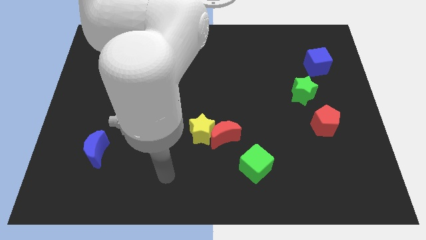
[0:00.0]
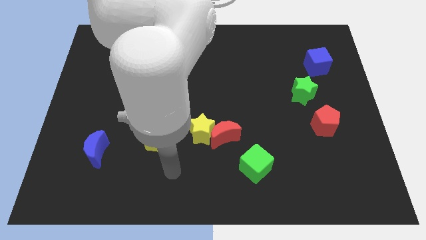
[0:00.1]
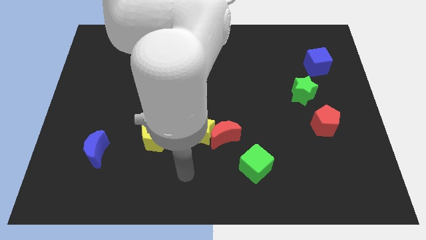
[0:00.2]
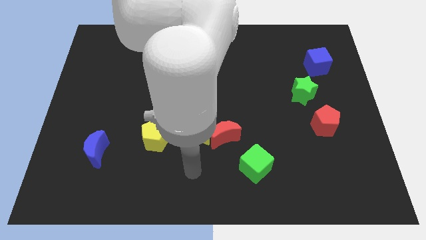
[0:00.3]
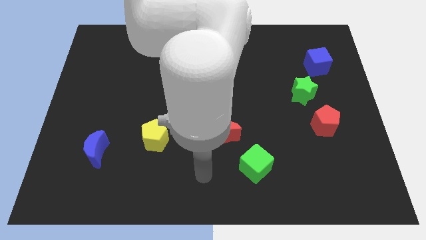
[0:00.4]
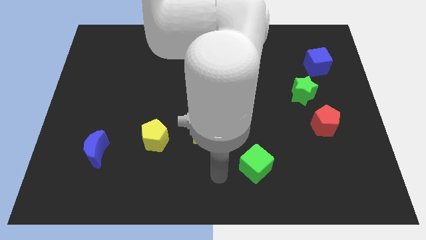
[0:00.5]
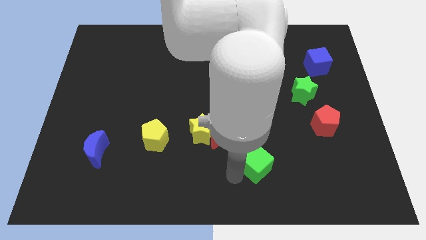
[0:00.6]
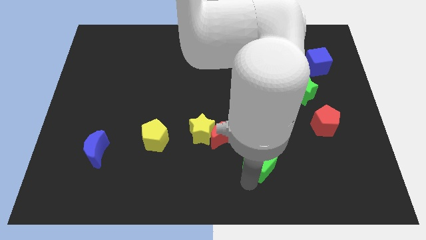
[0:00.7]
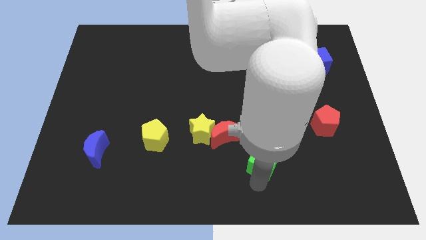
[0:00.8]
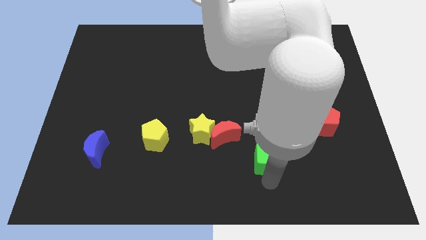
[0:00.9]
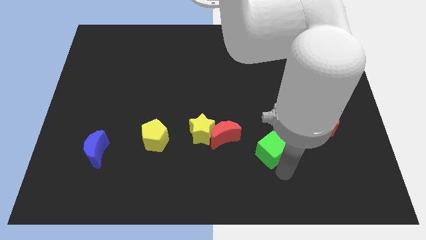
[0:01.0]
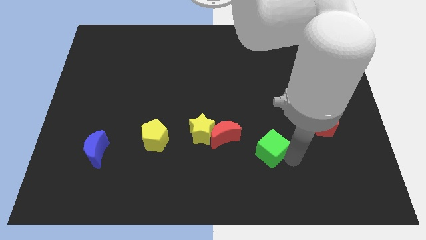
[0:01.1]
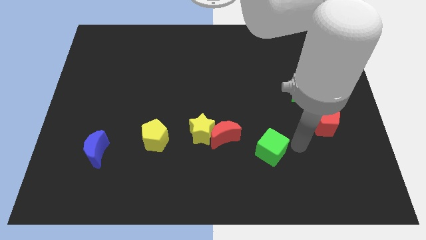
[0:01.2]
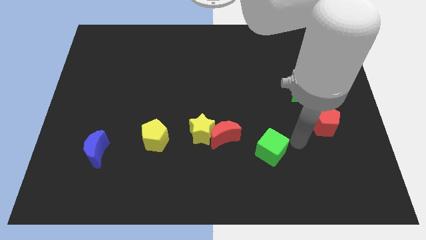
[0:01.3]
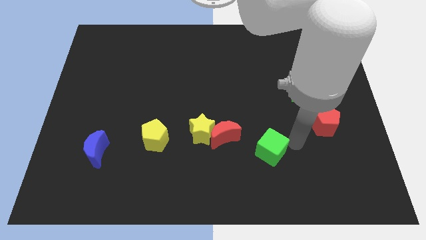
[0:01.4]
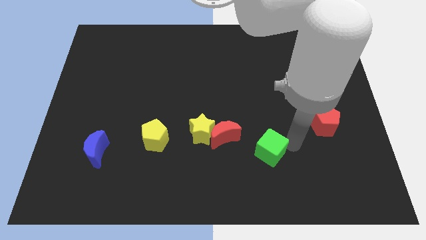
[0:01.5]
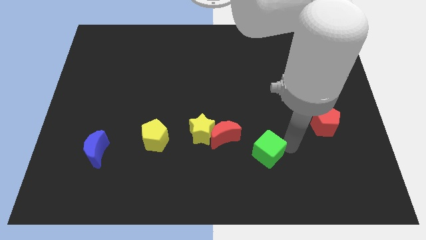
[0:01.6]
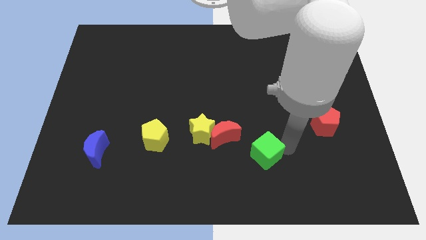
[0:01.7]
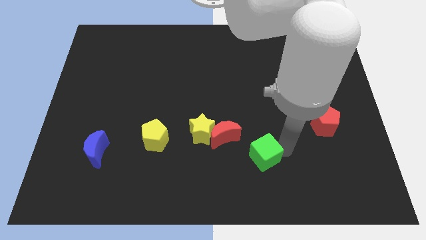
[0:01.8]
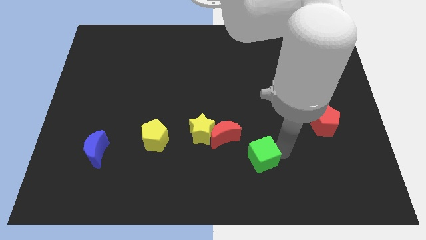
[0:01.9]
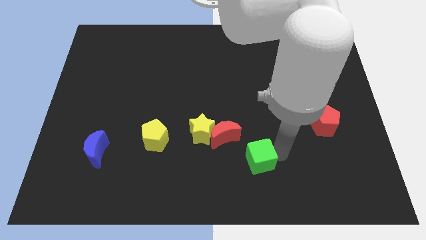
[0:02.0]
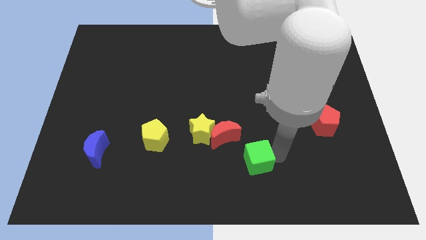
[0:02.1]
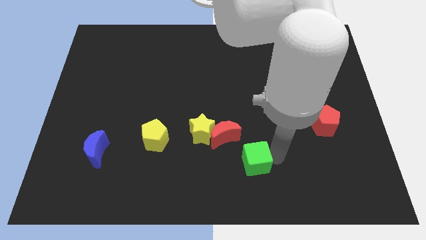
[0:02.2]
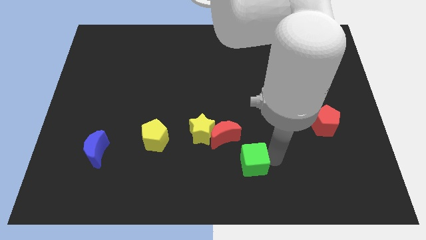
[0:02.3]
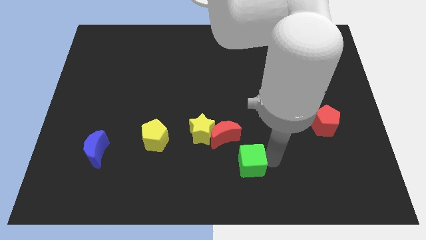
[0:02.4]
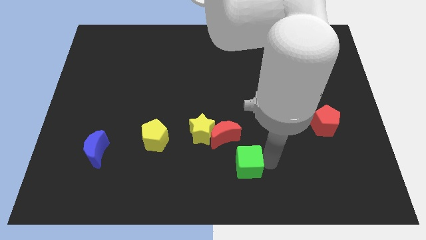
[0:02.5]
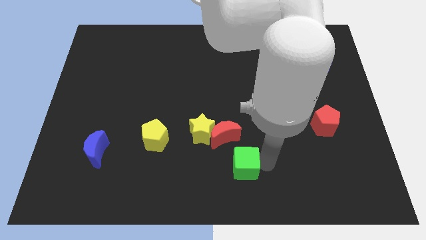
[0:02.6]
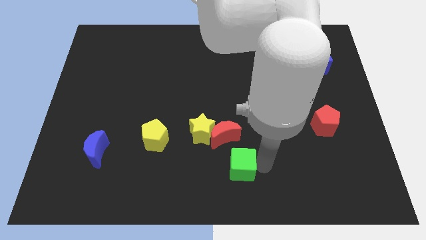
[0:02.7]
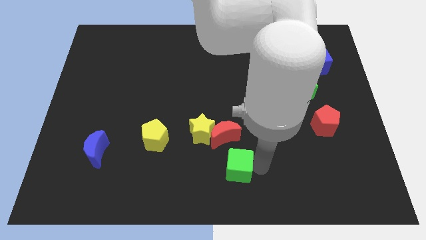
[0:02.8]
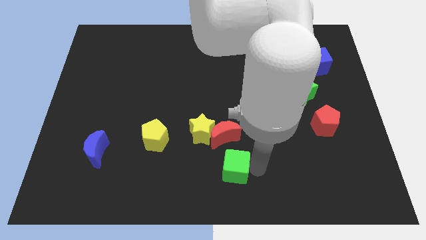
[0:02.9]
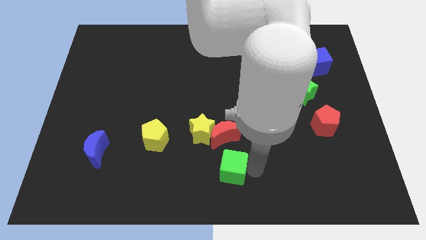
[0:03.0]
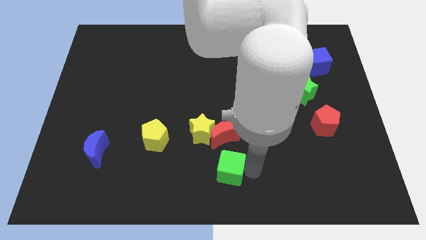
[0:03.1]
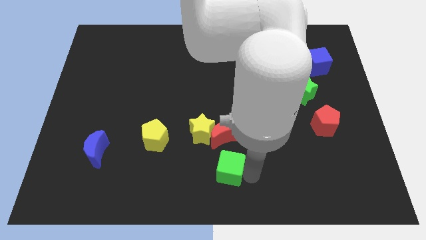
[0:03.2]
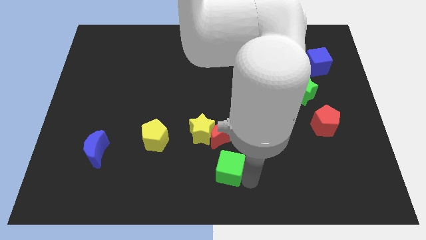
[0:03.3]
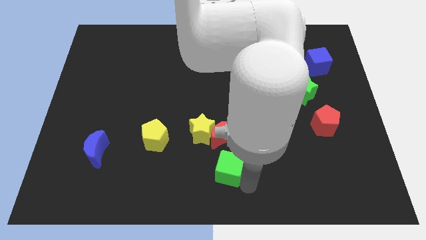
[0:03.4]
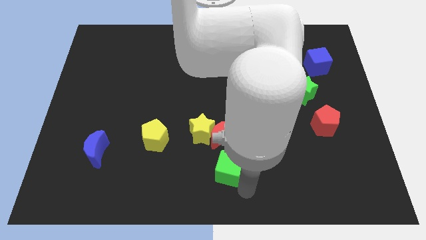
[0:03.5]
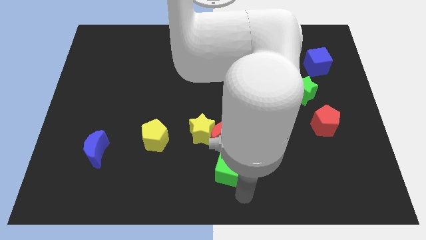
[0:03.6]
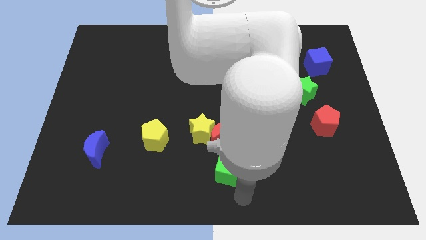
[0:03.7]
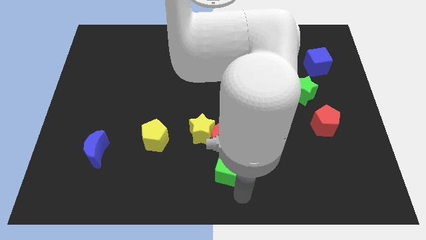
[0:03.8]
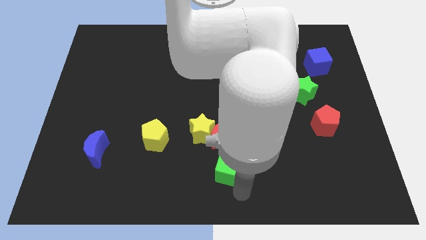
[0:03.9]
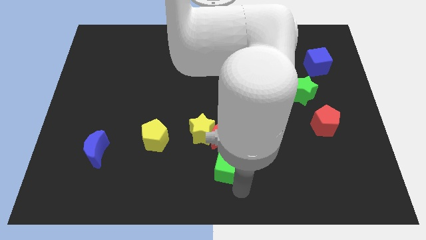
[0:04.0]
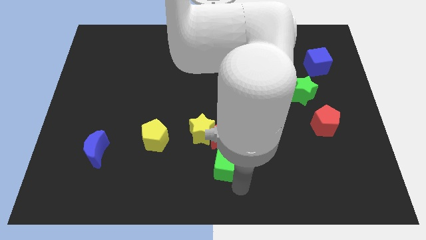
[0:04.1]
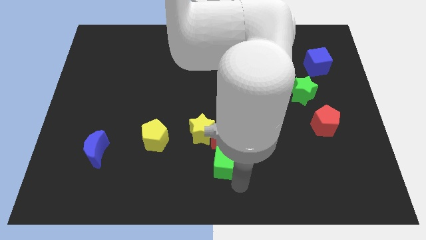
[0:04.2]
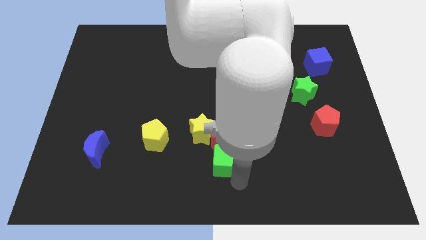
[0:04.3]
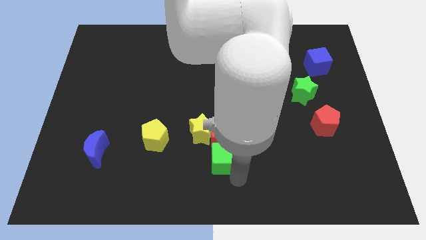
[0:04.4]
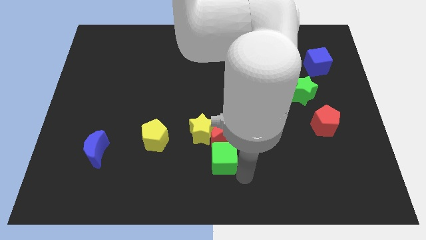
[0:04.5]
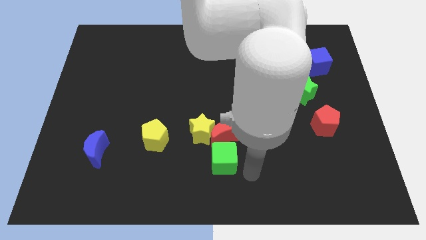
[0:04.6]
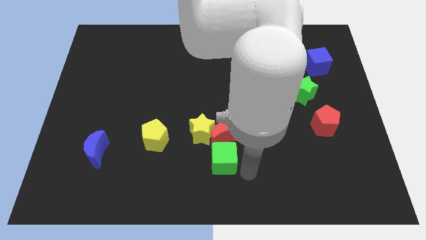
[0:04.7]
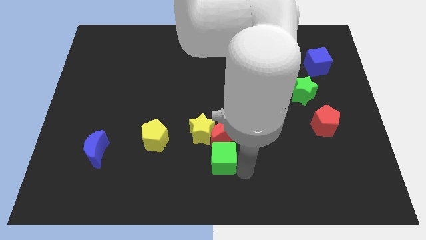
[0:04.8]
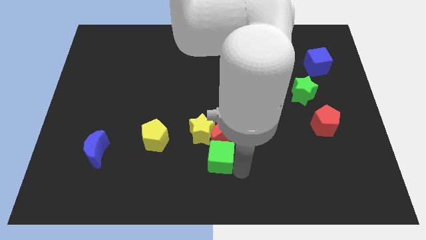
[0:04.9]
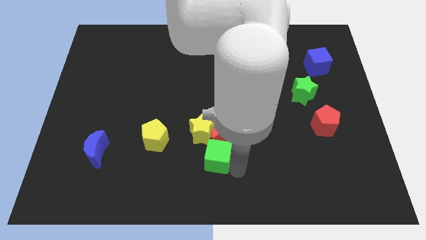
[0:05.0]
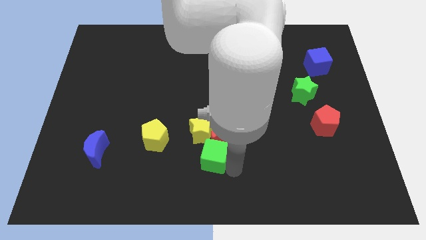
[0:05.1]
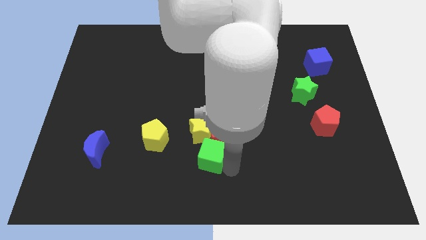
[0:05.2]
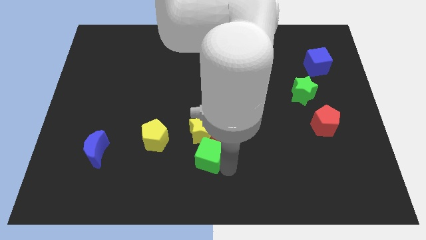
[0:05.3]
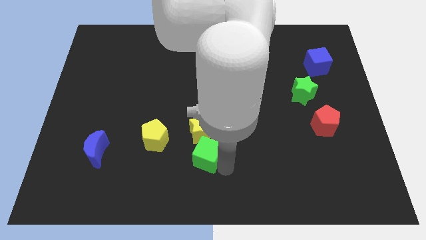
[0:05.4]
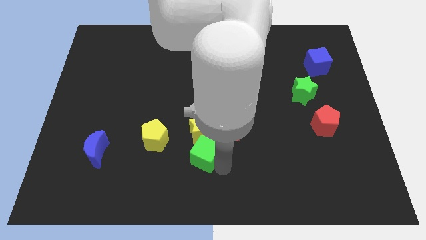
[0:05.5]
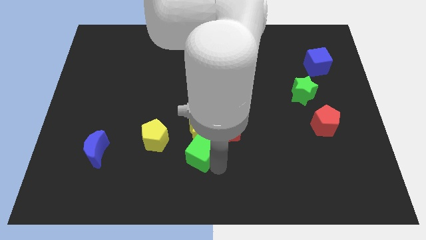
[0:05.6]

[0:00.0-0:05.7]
put the green cube to the left side of the red moon

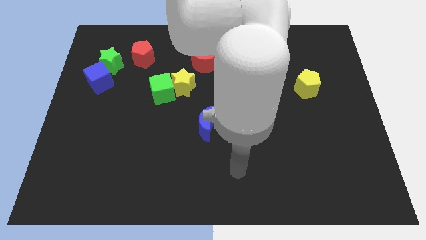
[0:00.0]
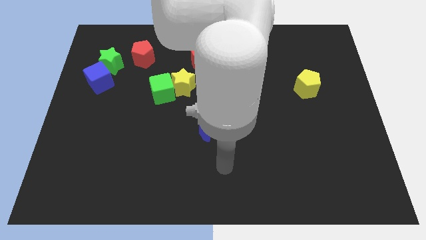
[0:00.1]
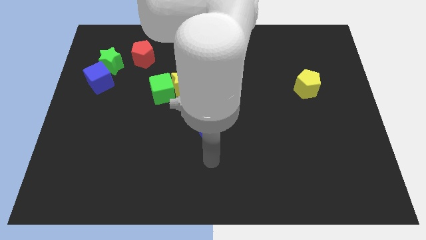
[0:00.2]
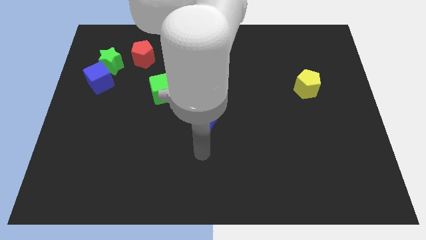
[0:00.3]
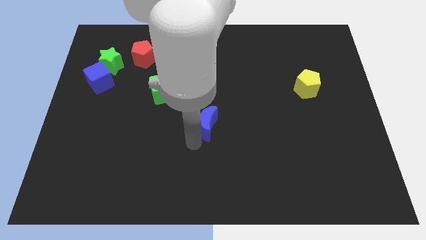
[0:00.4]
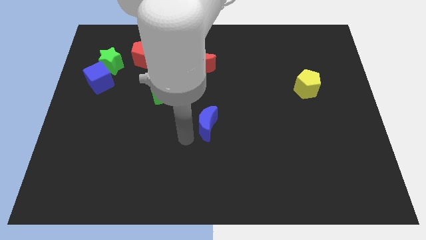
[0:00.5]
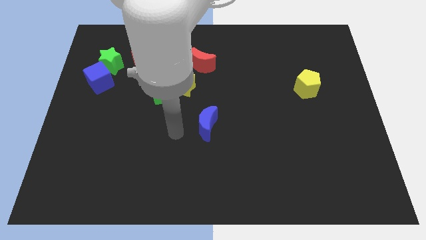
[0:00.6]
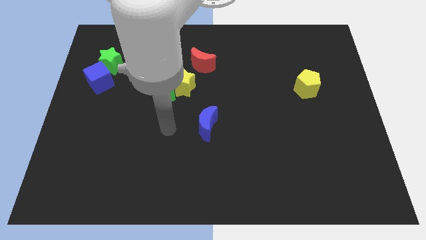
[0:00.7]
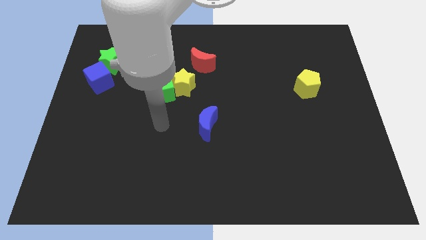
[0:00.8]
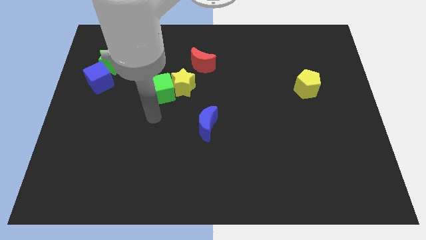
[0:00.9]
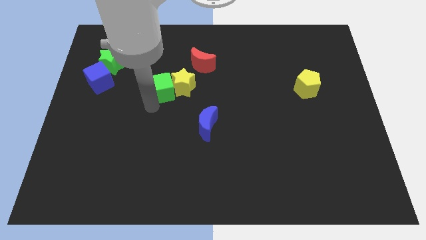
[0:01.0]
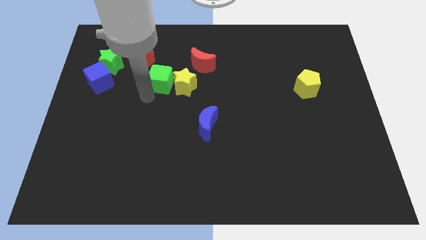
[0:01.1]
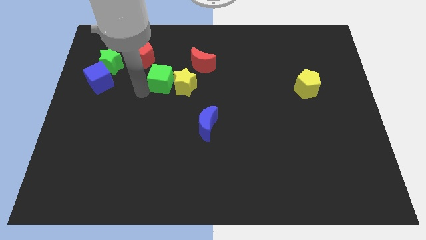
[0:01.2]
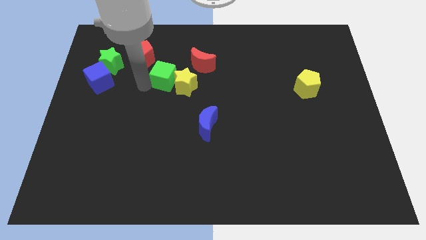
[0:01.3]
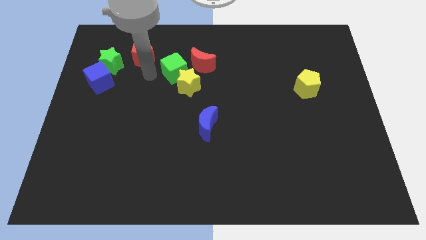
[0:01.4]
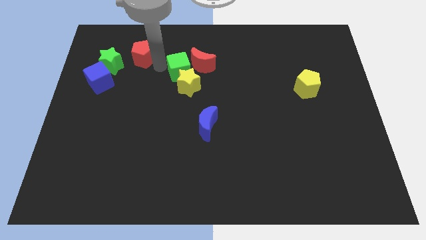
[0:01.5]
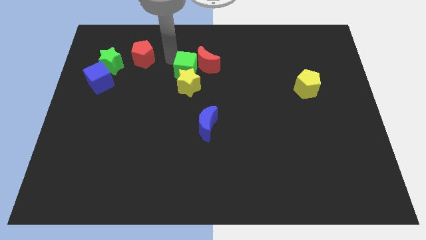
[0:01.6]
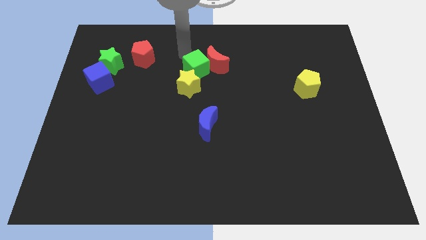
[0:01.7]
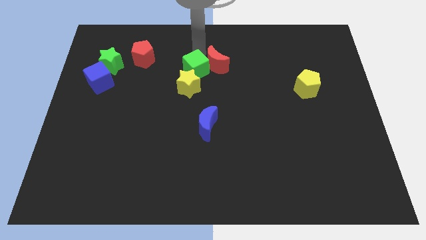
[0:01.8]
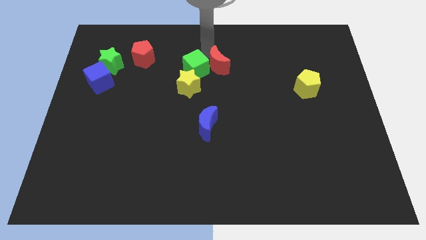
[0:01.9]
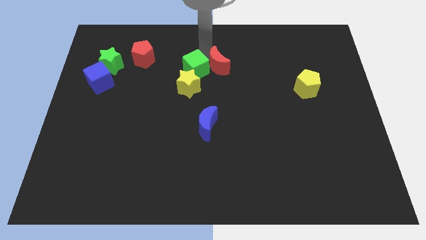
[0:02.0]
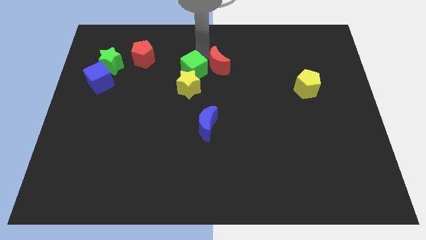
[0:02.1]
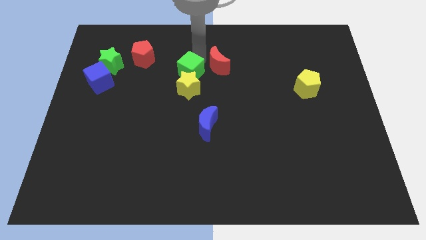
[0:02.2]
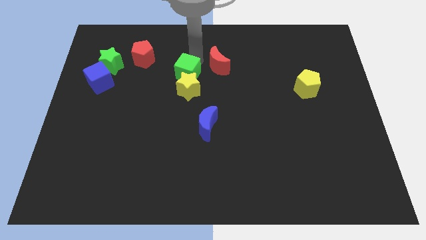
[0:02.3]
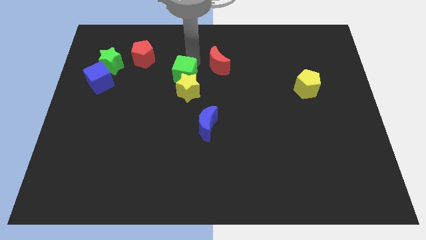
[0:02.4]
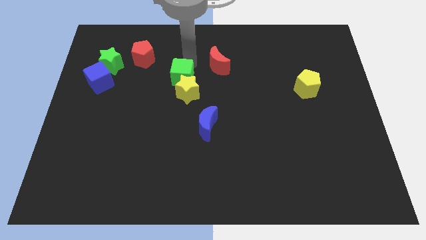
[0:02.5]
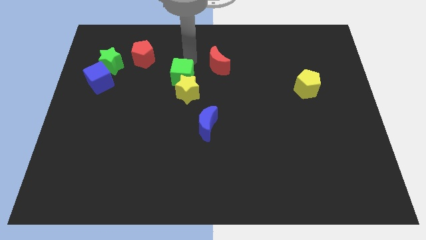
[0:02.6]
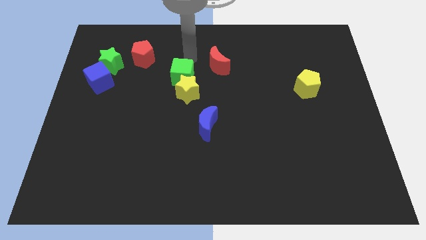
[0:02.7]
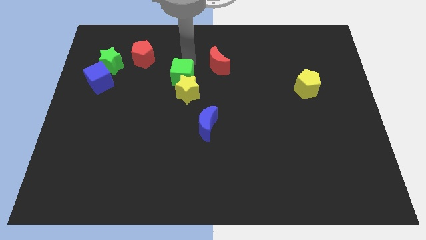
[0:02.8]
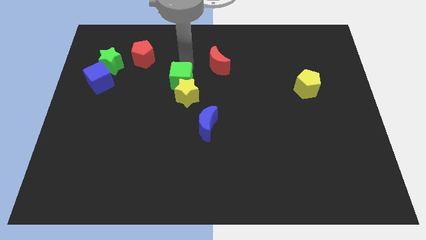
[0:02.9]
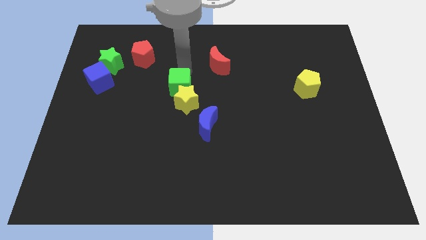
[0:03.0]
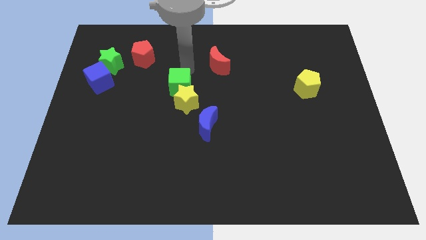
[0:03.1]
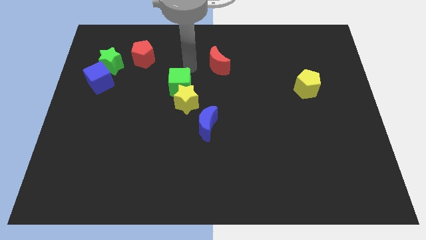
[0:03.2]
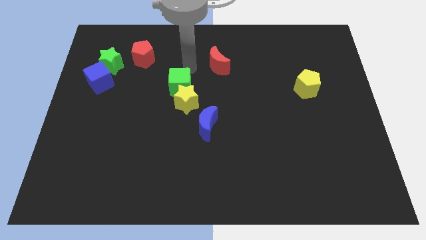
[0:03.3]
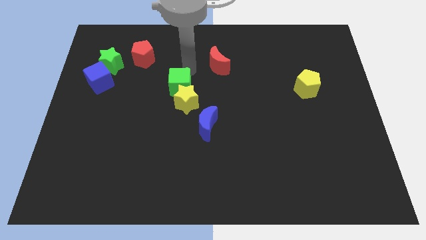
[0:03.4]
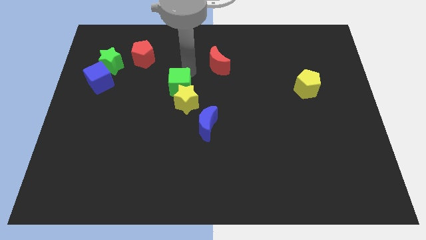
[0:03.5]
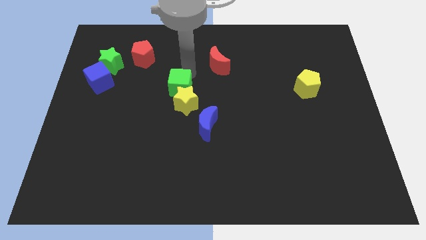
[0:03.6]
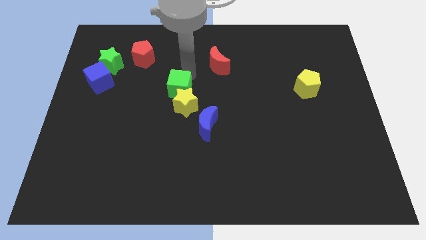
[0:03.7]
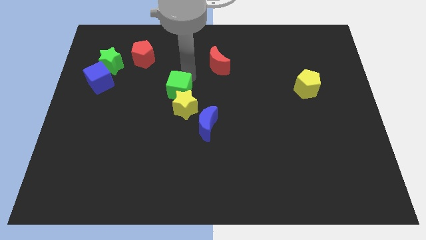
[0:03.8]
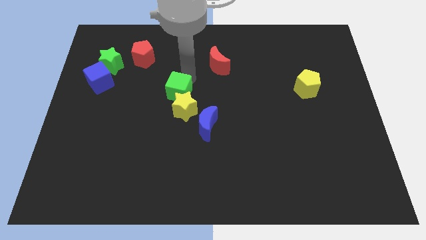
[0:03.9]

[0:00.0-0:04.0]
push the green cube to the top left side of the blue moon
